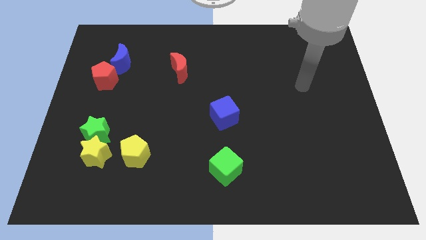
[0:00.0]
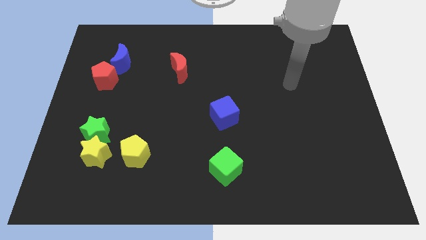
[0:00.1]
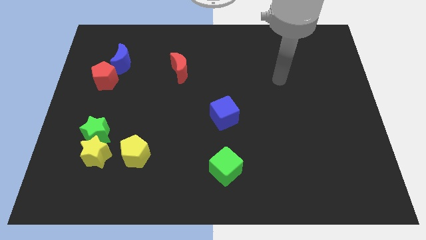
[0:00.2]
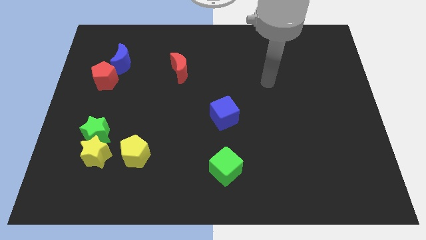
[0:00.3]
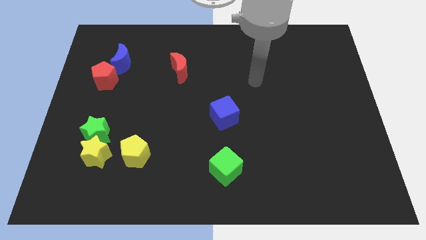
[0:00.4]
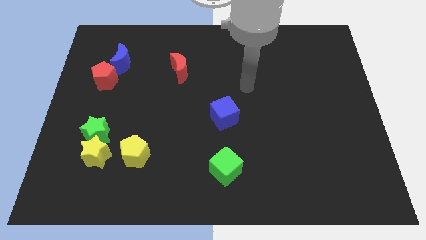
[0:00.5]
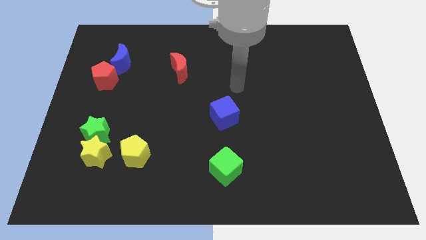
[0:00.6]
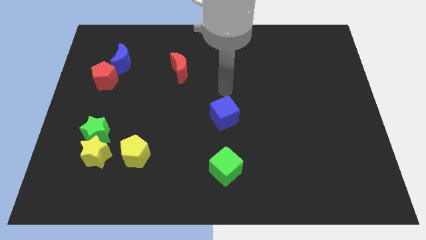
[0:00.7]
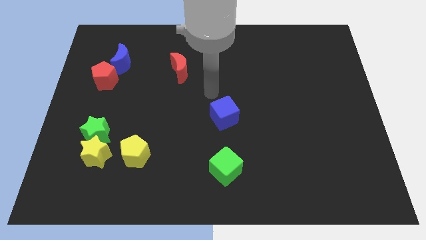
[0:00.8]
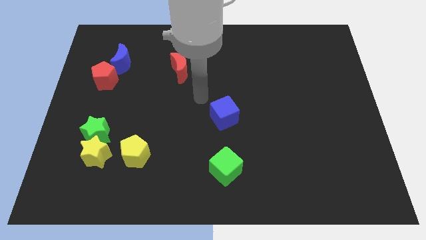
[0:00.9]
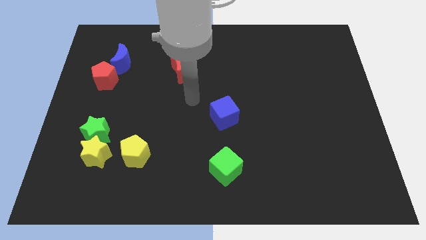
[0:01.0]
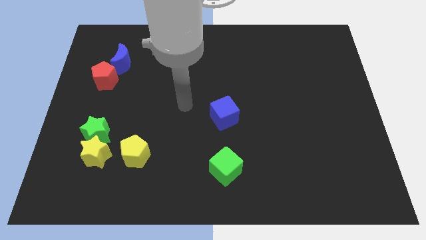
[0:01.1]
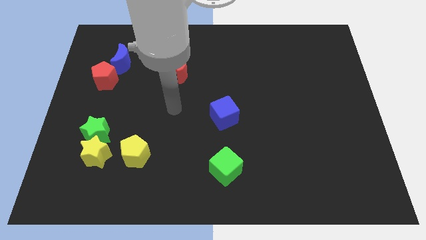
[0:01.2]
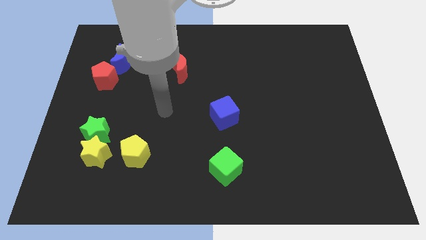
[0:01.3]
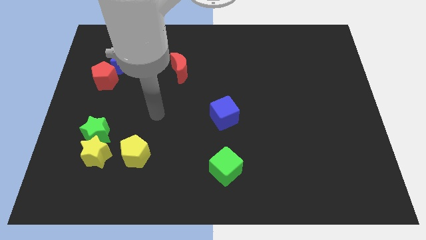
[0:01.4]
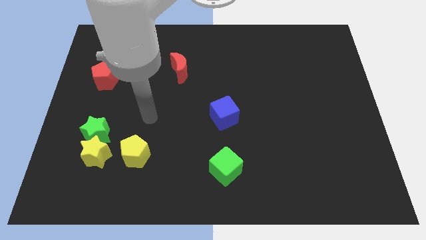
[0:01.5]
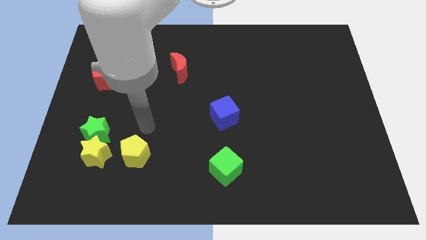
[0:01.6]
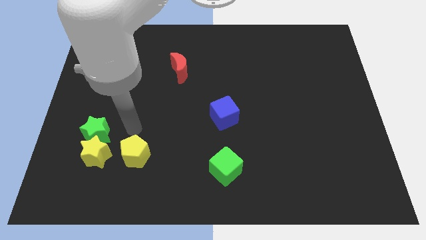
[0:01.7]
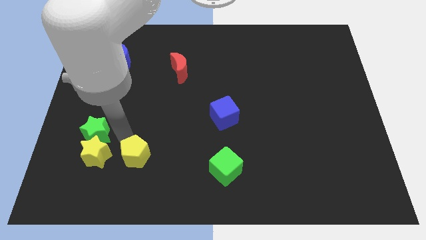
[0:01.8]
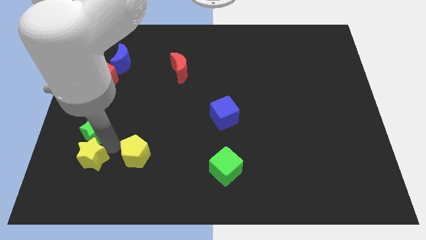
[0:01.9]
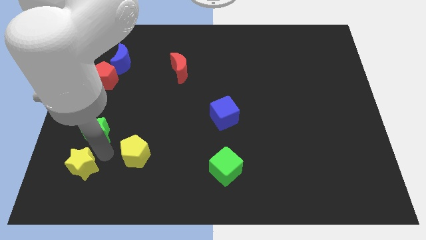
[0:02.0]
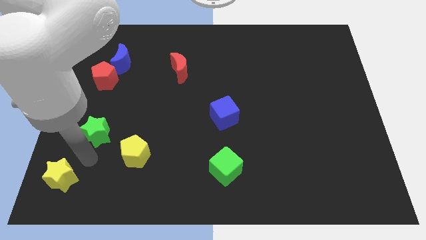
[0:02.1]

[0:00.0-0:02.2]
pull the green star apart from the yellow star

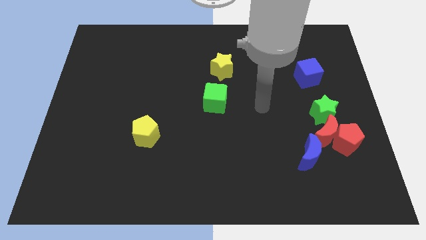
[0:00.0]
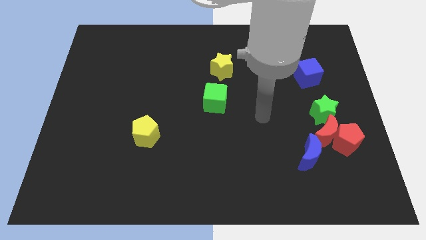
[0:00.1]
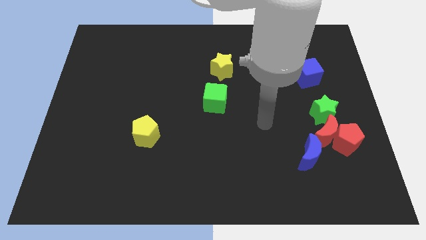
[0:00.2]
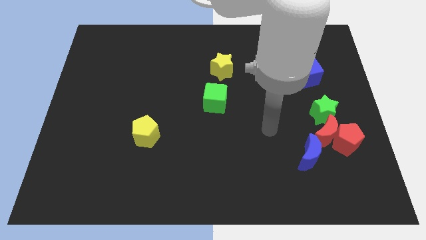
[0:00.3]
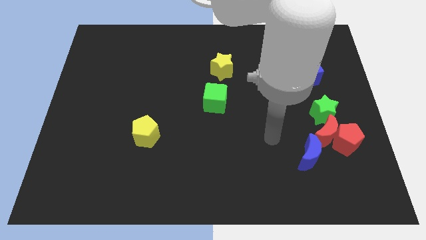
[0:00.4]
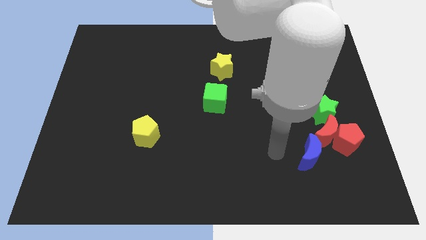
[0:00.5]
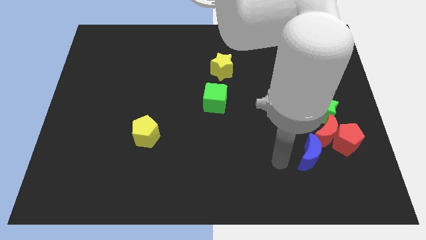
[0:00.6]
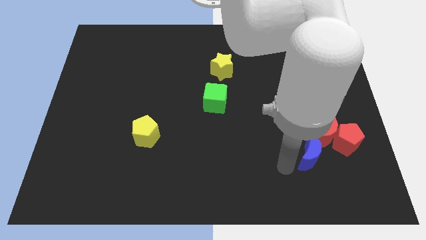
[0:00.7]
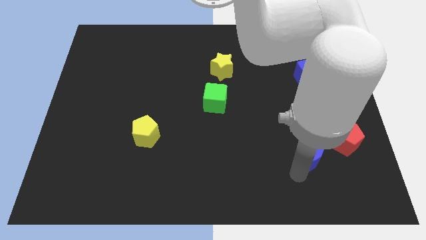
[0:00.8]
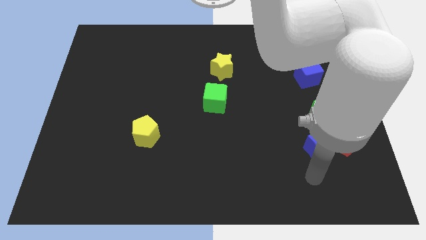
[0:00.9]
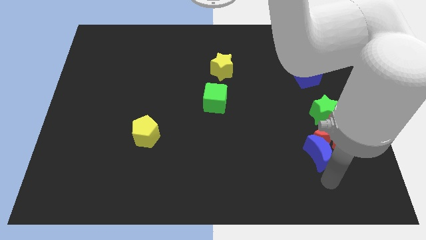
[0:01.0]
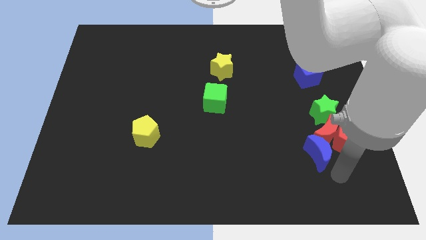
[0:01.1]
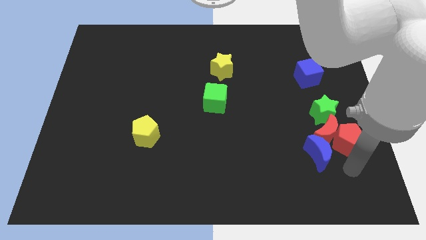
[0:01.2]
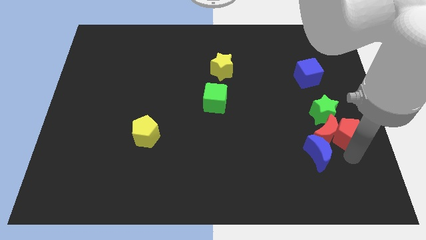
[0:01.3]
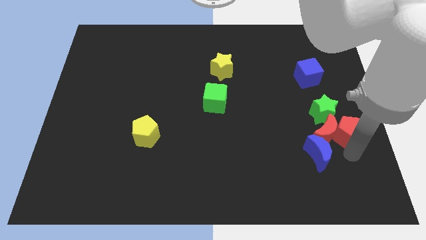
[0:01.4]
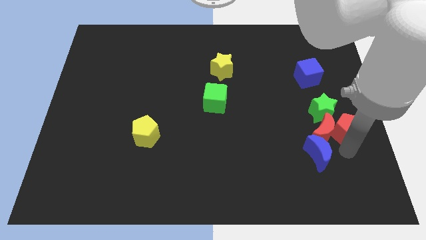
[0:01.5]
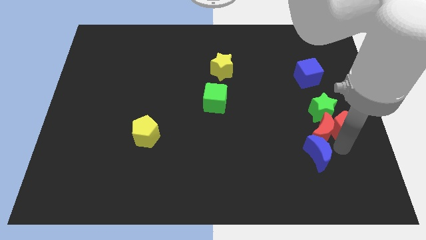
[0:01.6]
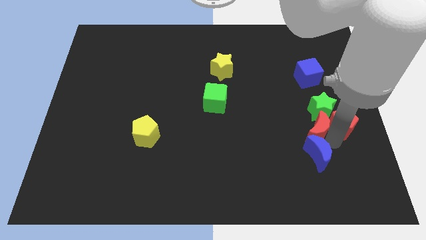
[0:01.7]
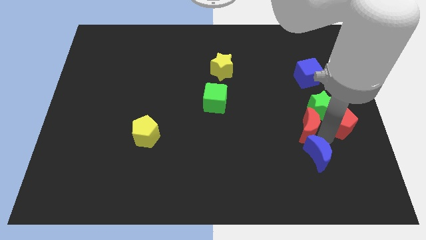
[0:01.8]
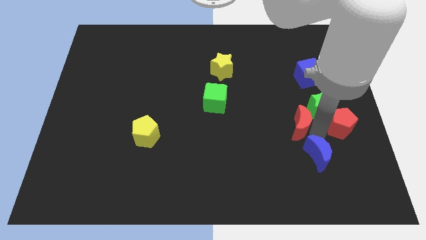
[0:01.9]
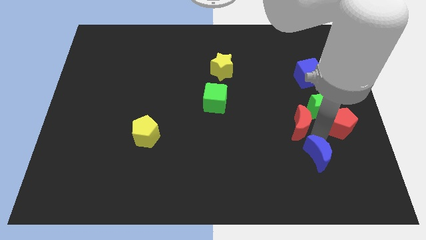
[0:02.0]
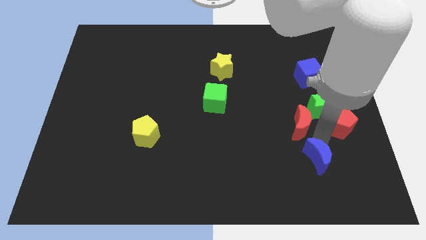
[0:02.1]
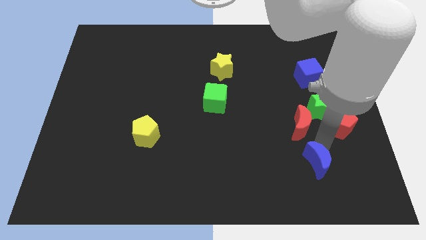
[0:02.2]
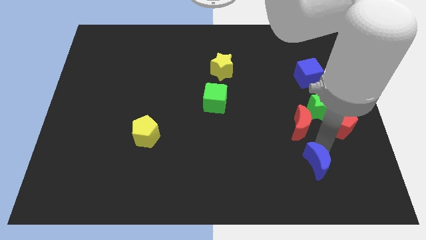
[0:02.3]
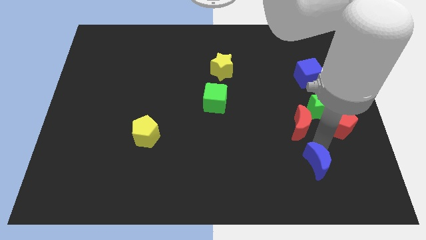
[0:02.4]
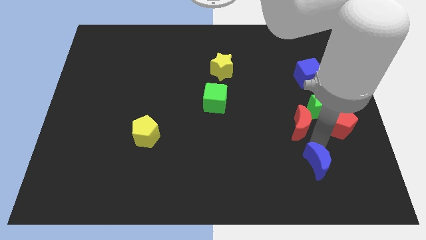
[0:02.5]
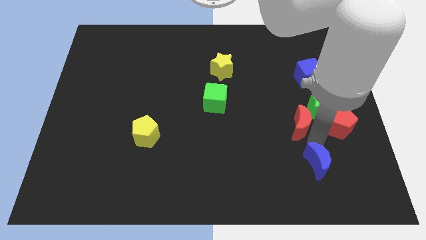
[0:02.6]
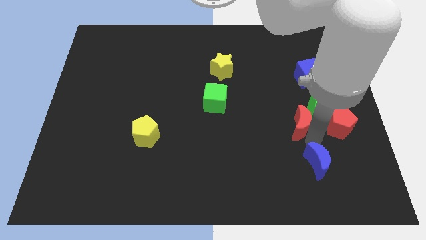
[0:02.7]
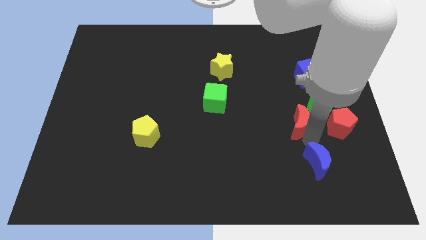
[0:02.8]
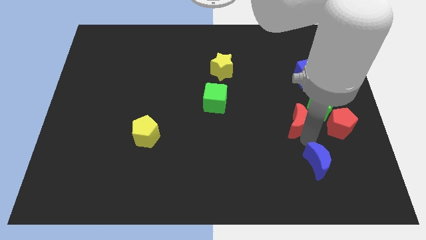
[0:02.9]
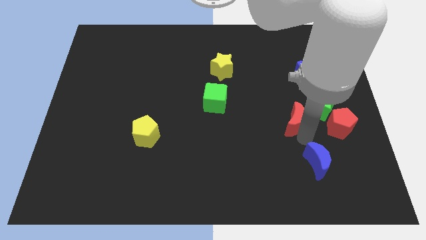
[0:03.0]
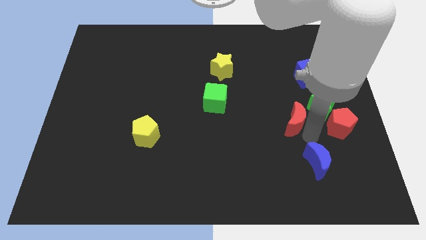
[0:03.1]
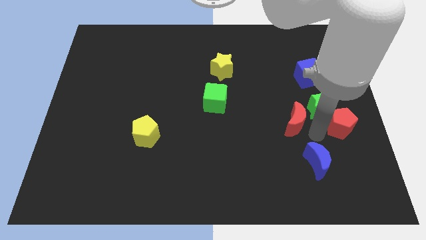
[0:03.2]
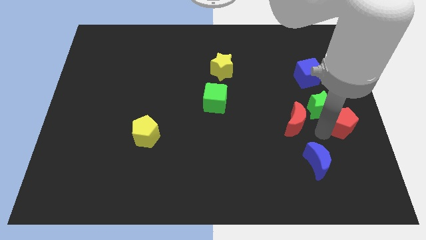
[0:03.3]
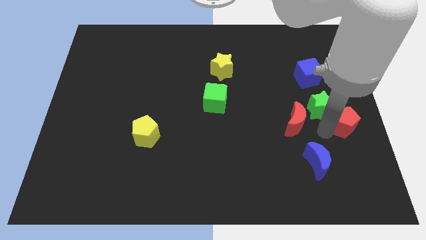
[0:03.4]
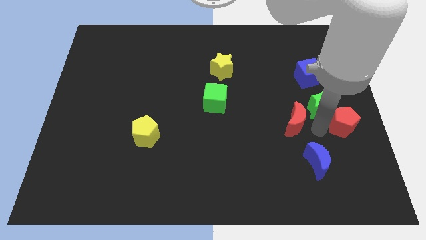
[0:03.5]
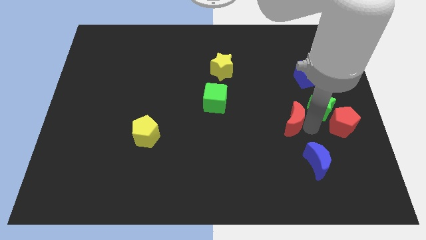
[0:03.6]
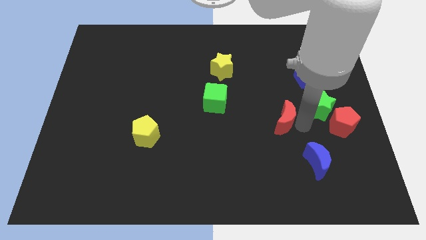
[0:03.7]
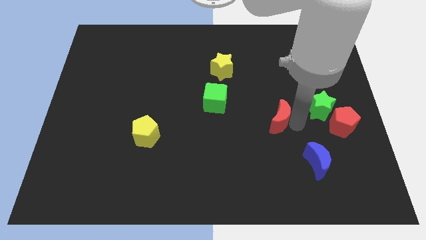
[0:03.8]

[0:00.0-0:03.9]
move the red moon away from the group of blocks

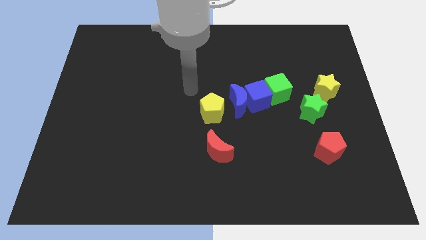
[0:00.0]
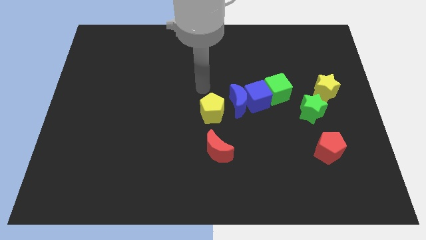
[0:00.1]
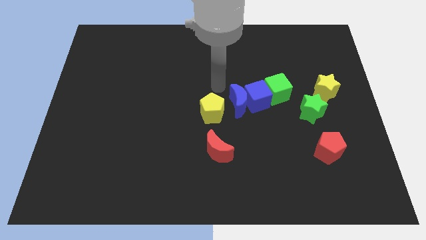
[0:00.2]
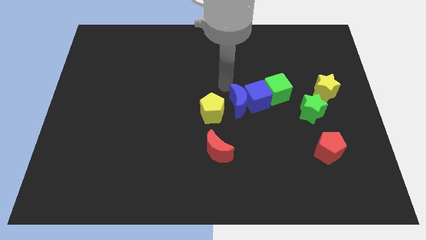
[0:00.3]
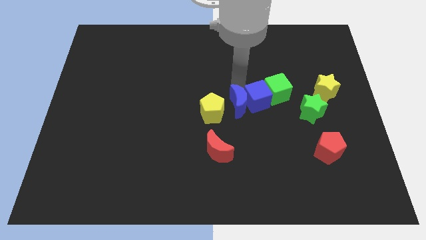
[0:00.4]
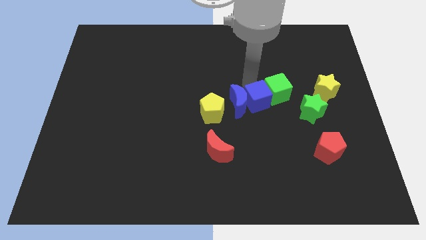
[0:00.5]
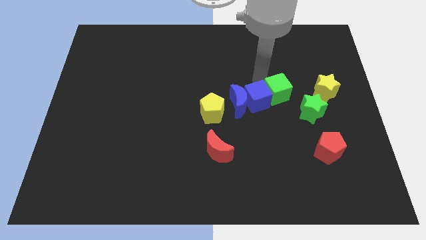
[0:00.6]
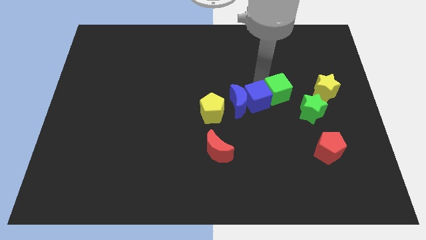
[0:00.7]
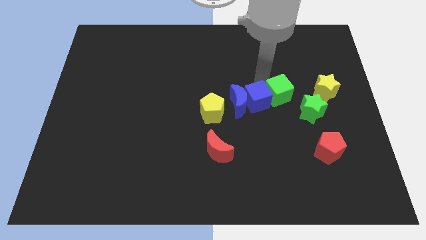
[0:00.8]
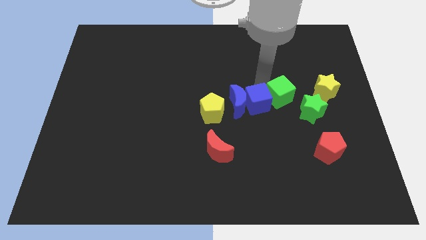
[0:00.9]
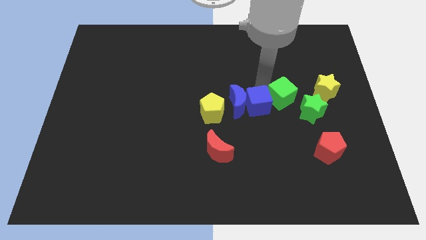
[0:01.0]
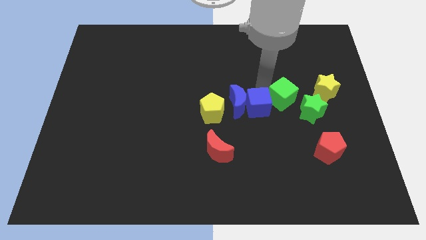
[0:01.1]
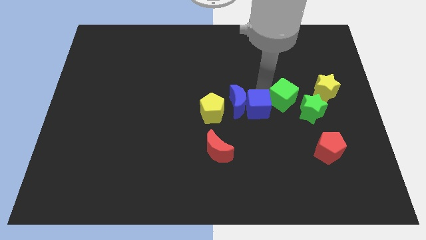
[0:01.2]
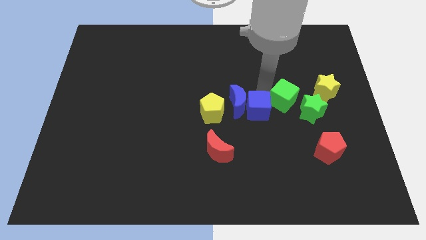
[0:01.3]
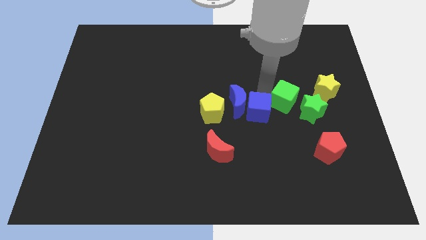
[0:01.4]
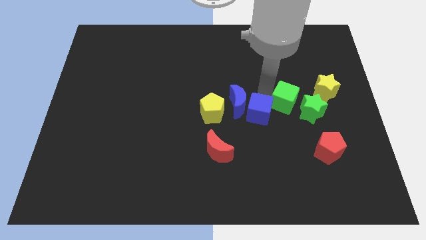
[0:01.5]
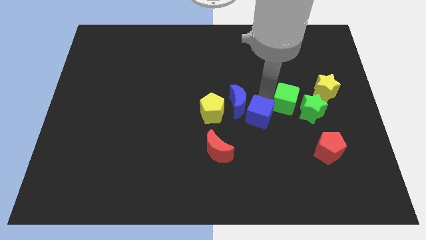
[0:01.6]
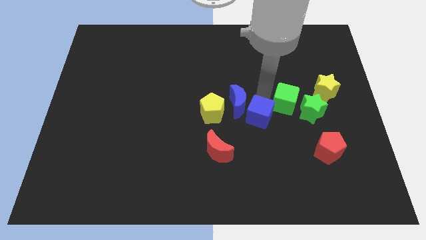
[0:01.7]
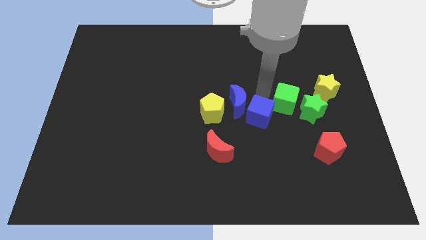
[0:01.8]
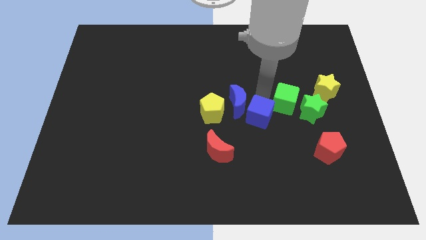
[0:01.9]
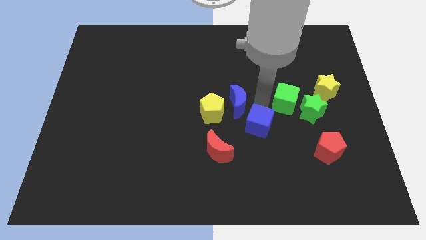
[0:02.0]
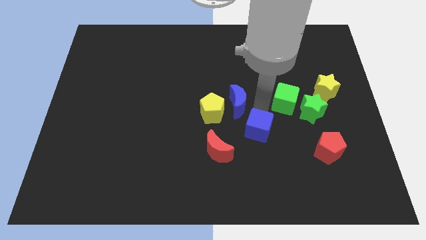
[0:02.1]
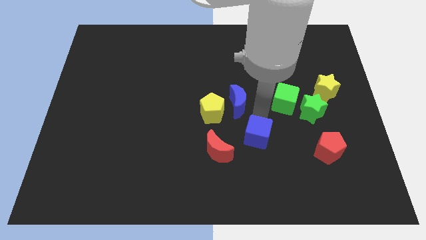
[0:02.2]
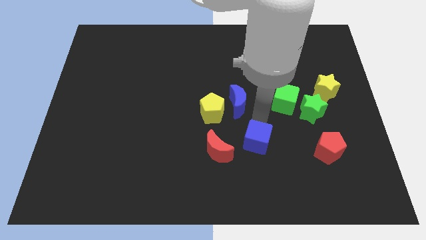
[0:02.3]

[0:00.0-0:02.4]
pull the blue cube apart from the blue moon and green cube

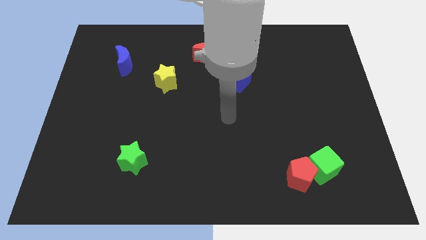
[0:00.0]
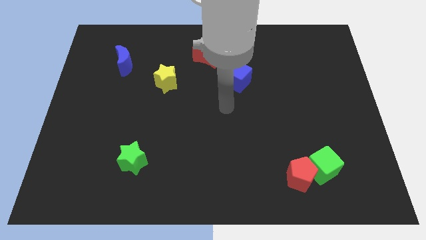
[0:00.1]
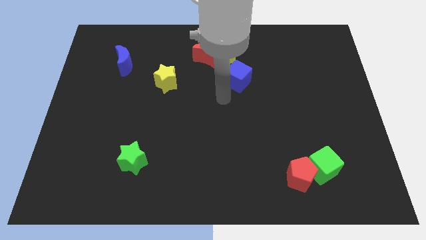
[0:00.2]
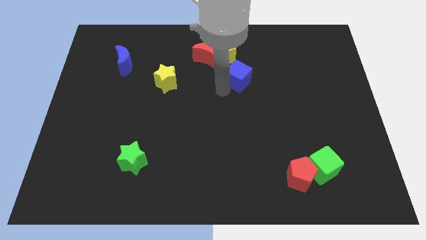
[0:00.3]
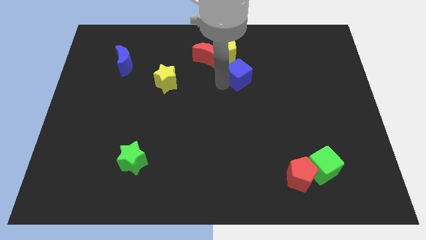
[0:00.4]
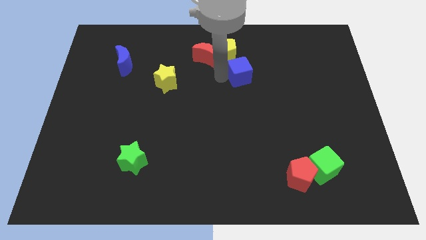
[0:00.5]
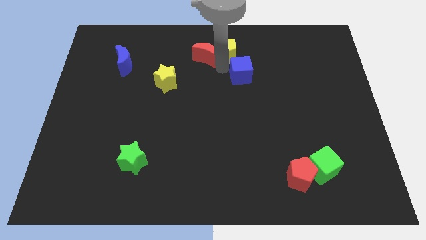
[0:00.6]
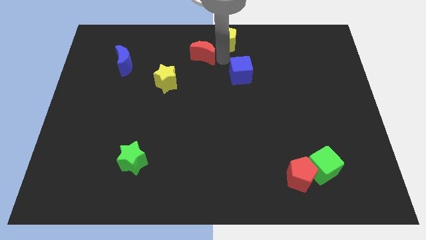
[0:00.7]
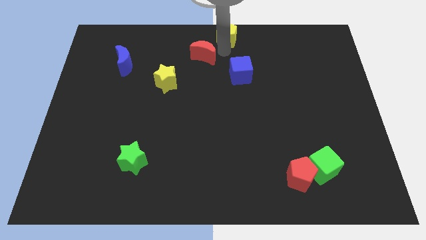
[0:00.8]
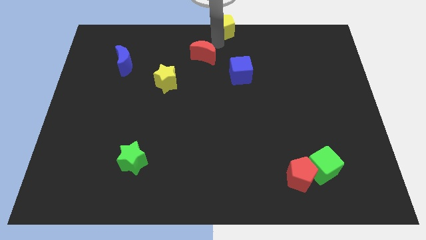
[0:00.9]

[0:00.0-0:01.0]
separate the red moon from the yellow pentagon

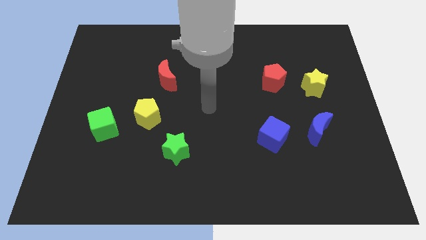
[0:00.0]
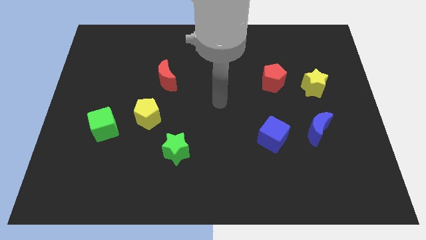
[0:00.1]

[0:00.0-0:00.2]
pull the red pentagon apart from the yellow star
